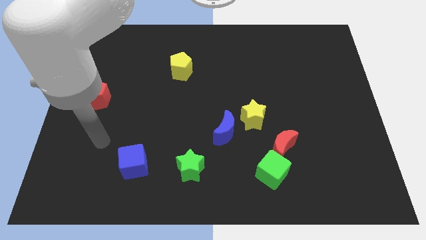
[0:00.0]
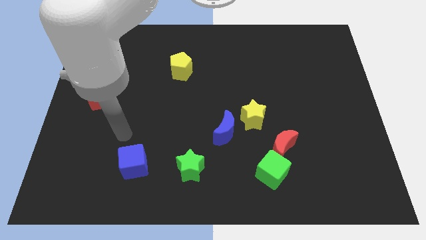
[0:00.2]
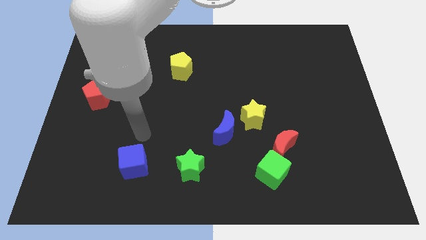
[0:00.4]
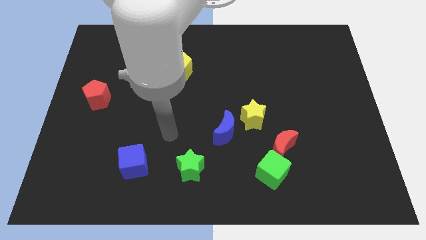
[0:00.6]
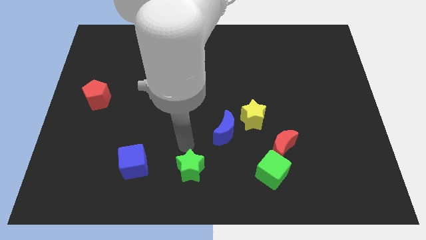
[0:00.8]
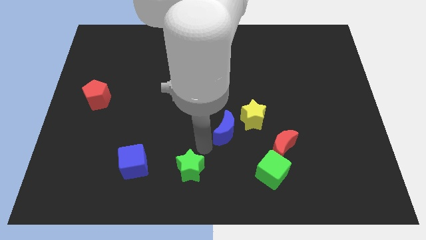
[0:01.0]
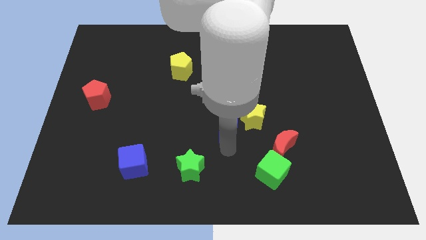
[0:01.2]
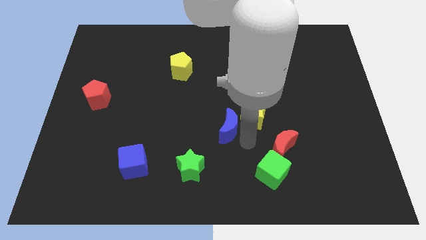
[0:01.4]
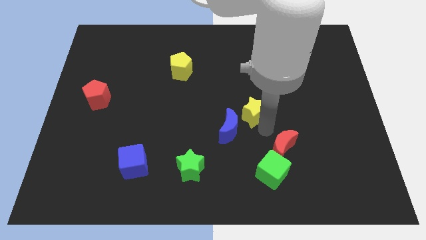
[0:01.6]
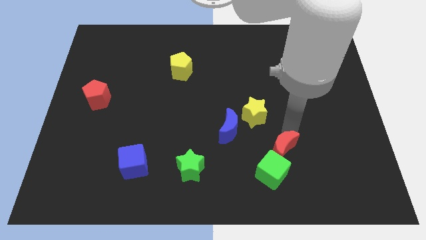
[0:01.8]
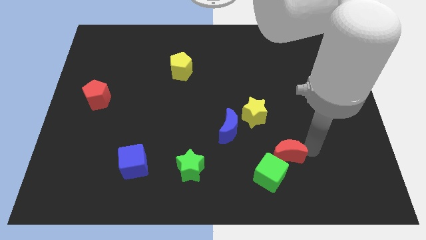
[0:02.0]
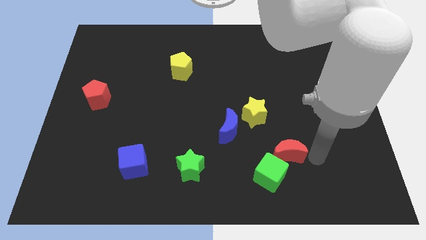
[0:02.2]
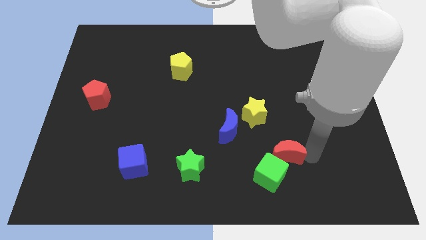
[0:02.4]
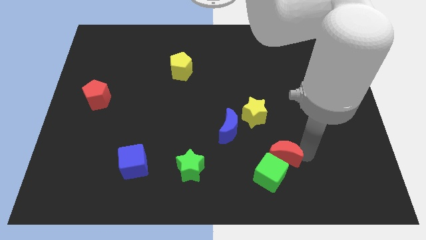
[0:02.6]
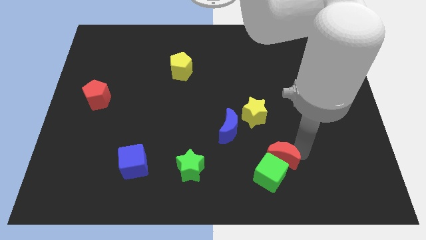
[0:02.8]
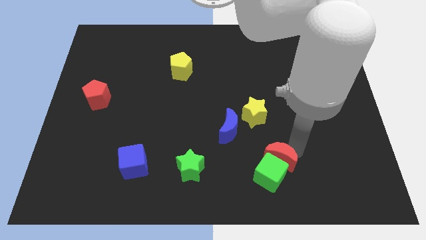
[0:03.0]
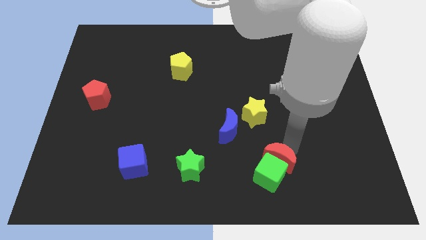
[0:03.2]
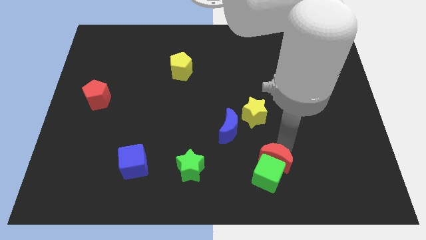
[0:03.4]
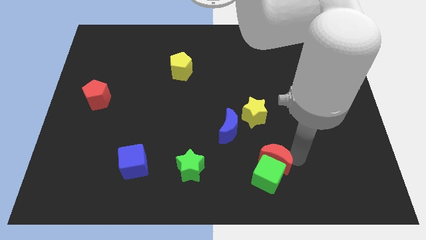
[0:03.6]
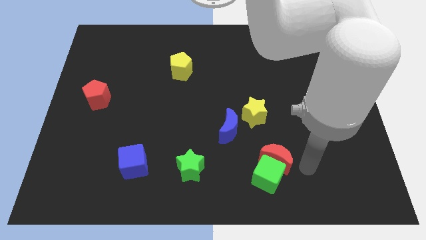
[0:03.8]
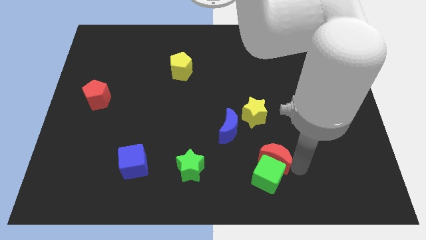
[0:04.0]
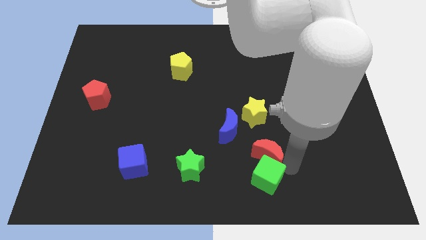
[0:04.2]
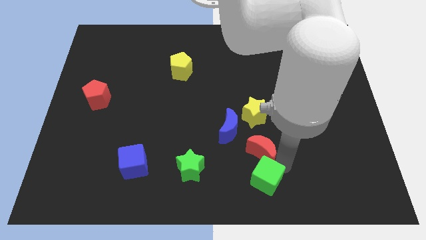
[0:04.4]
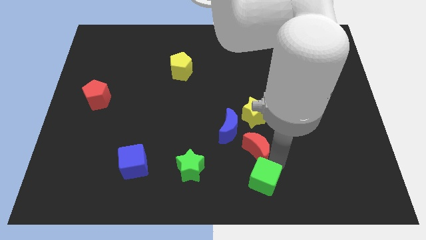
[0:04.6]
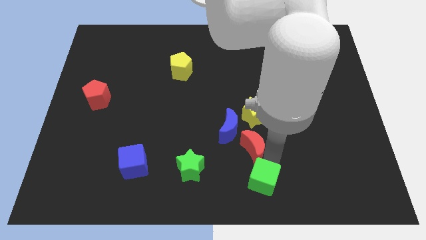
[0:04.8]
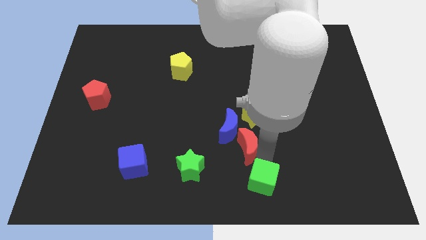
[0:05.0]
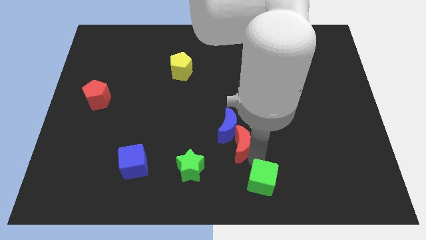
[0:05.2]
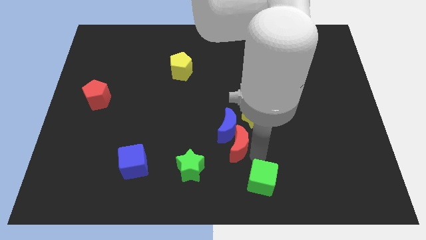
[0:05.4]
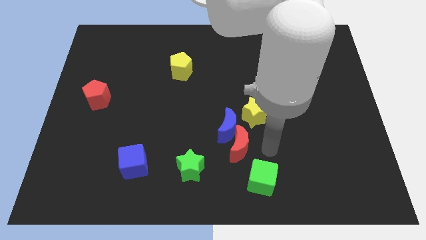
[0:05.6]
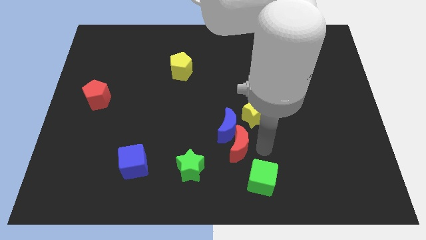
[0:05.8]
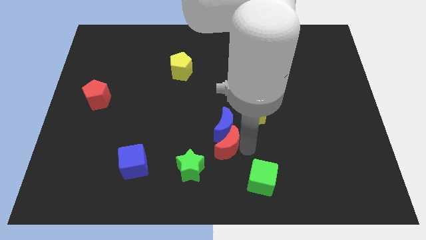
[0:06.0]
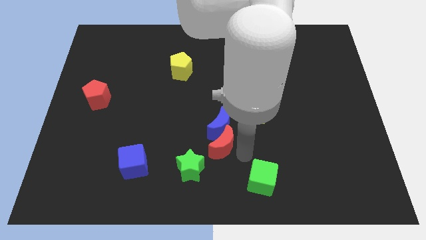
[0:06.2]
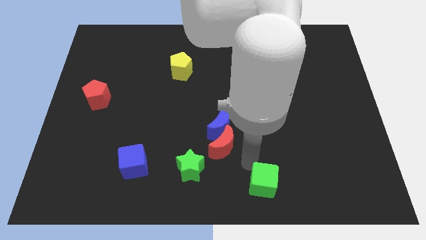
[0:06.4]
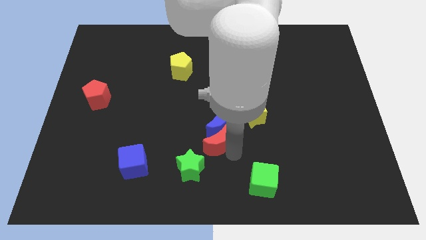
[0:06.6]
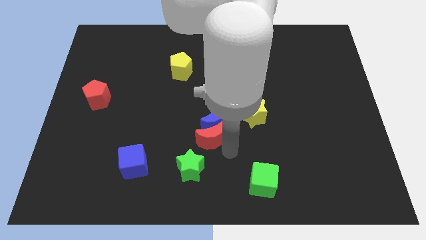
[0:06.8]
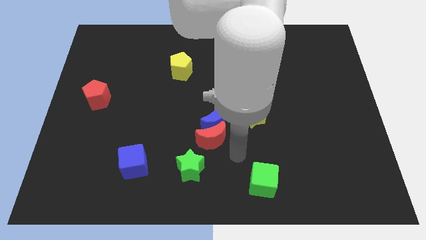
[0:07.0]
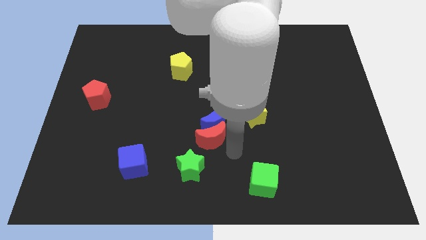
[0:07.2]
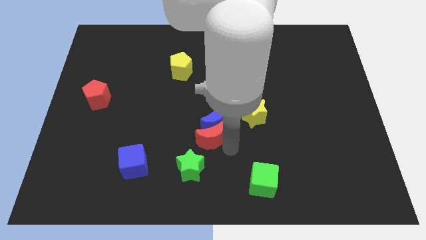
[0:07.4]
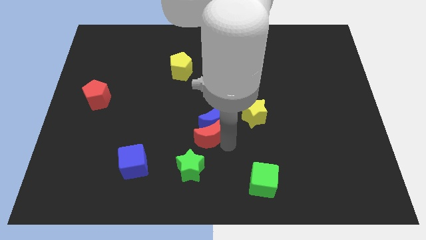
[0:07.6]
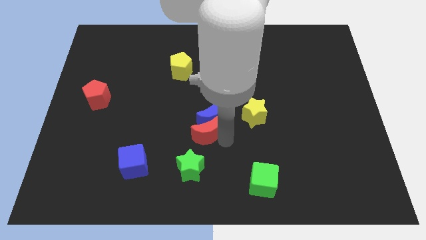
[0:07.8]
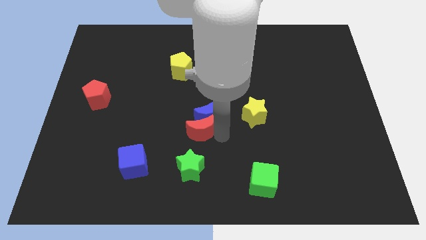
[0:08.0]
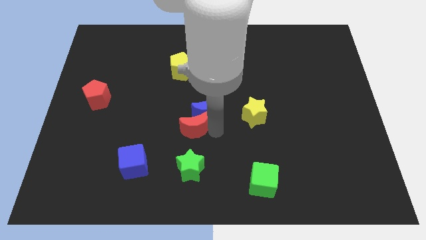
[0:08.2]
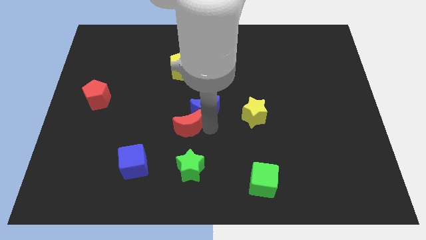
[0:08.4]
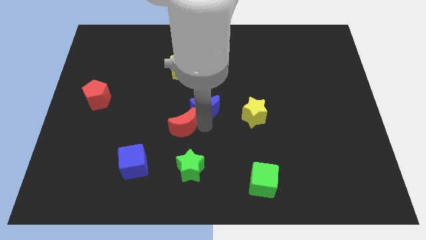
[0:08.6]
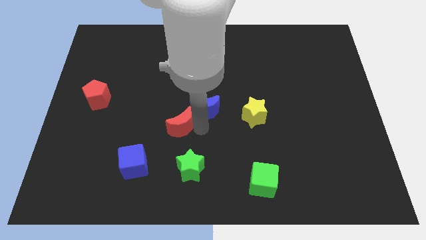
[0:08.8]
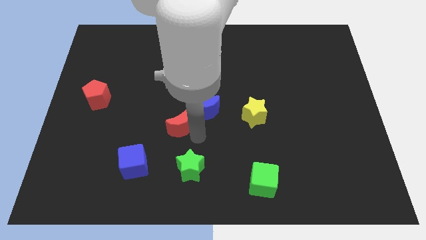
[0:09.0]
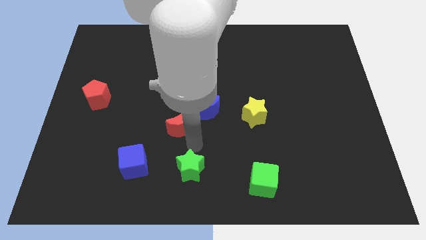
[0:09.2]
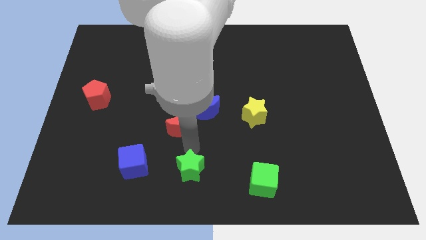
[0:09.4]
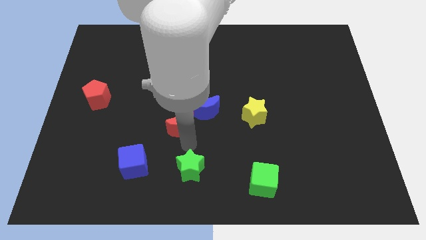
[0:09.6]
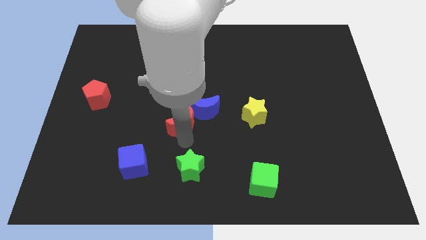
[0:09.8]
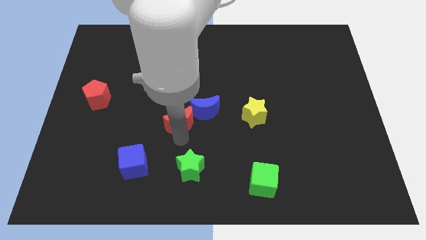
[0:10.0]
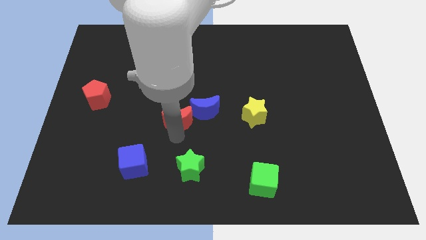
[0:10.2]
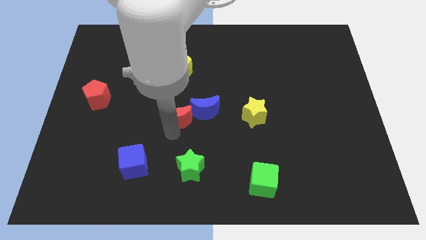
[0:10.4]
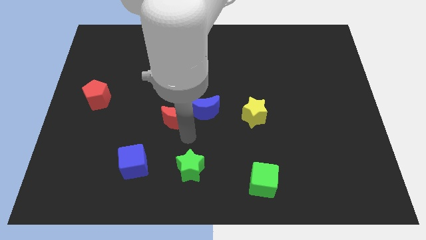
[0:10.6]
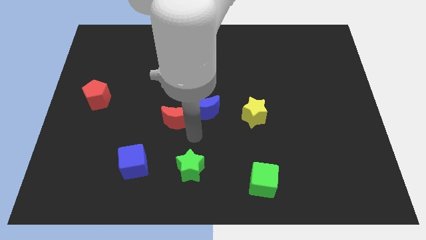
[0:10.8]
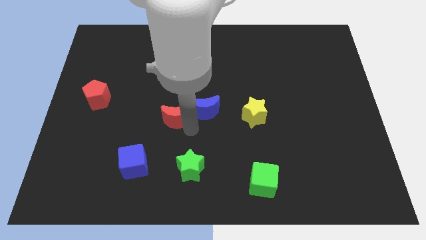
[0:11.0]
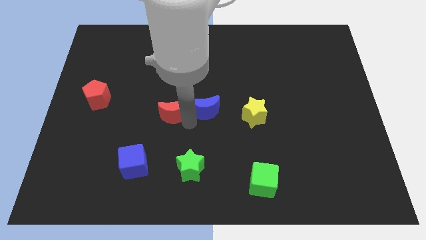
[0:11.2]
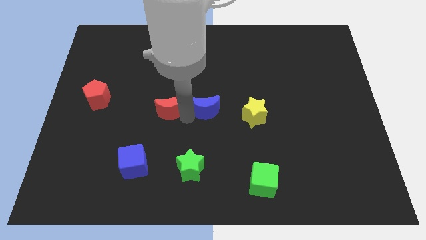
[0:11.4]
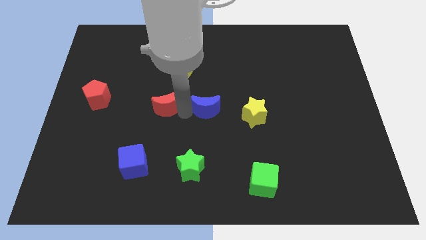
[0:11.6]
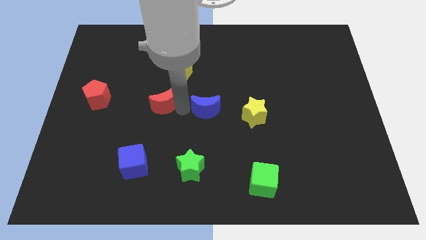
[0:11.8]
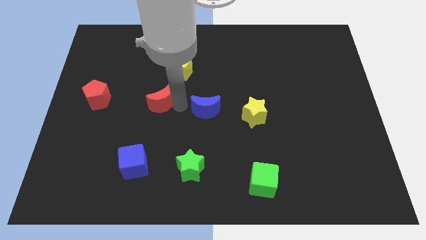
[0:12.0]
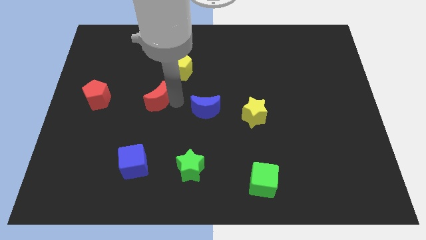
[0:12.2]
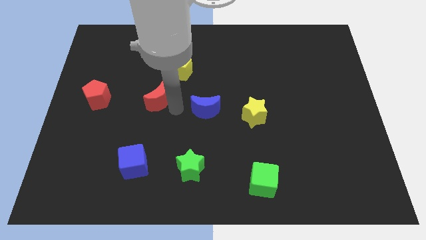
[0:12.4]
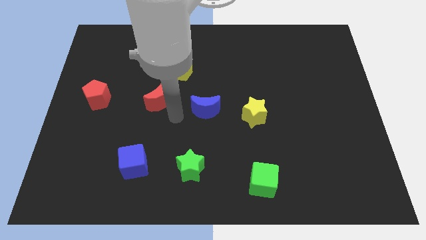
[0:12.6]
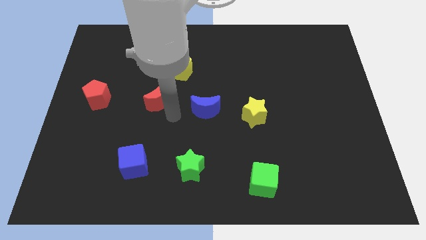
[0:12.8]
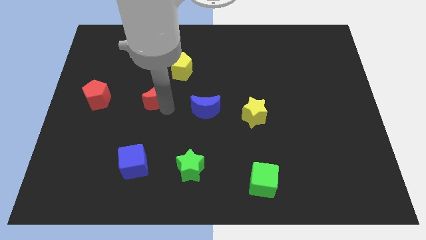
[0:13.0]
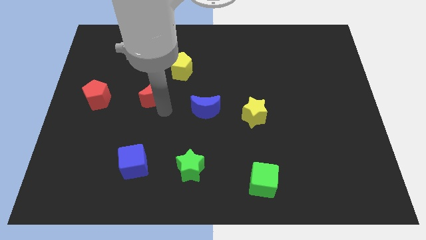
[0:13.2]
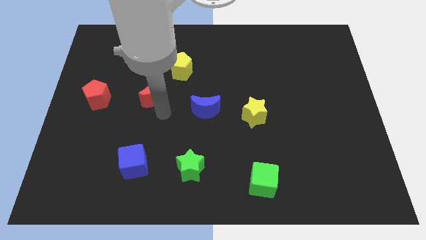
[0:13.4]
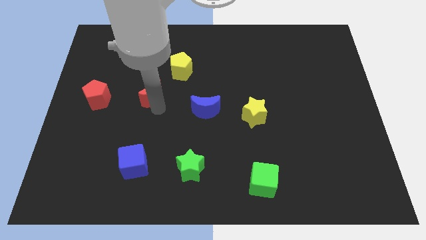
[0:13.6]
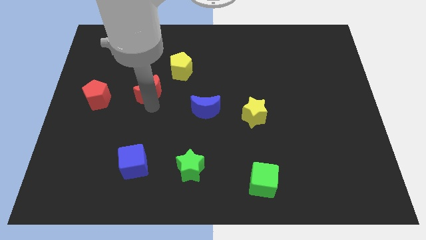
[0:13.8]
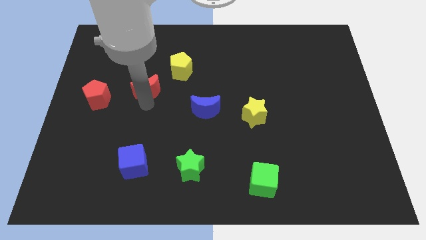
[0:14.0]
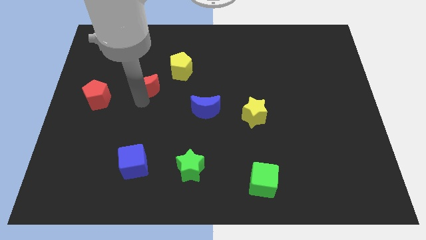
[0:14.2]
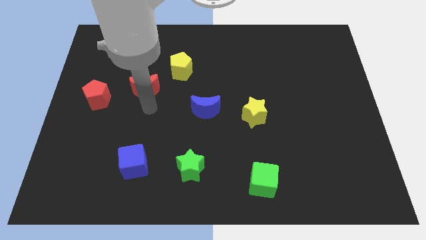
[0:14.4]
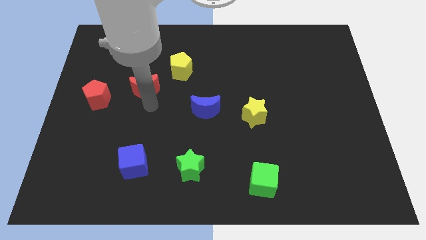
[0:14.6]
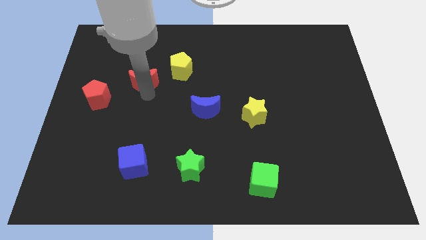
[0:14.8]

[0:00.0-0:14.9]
slide the red moon just left of the yellow pentagon
